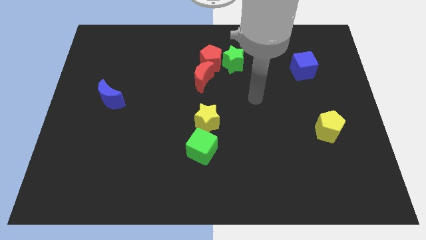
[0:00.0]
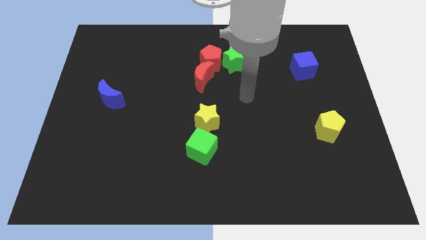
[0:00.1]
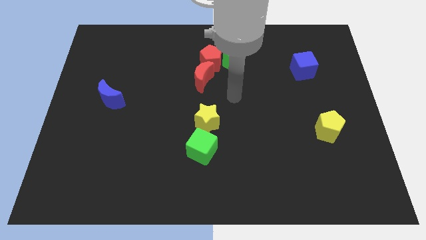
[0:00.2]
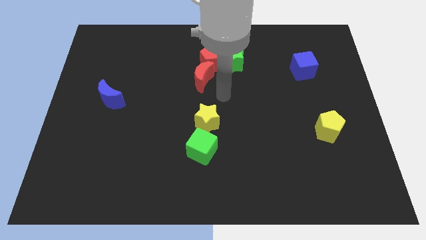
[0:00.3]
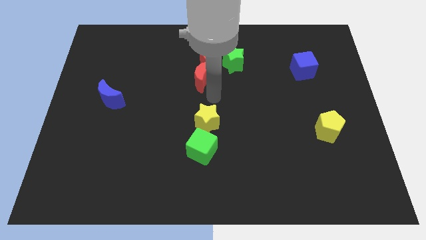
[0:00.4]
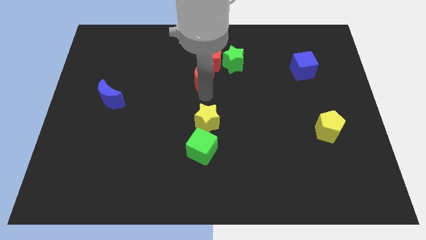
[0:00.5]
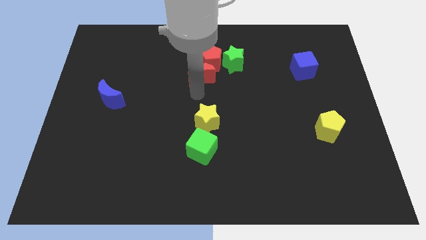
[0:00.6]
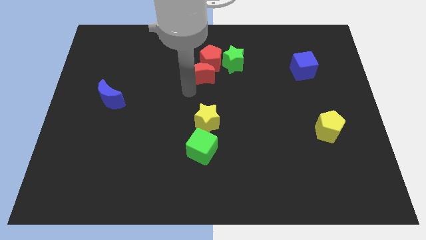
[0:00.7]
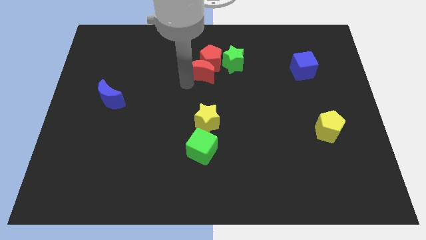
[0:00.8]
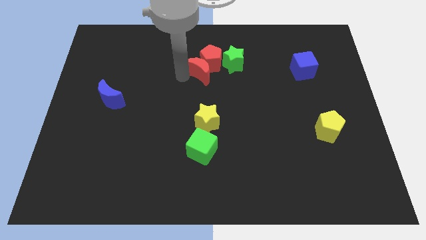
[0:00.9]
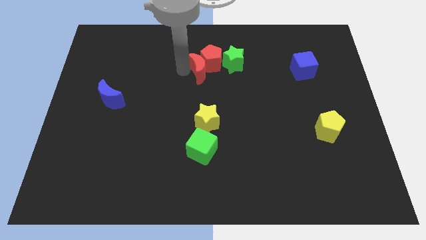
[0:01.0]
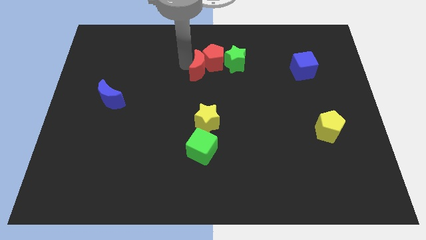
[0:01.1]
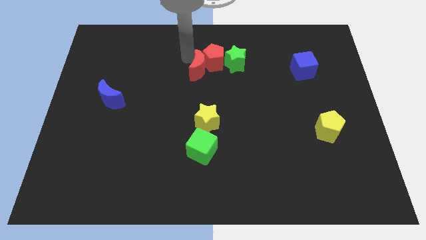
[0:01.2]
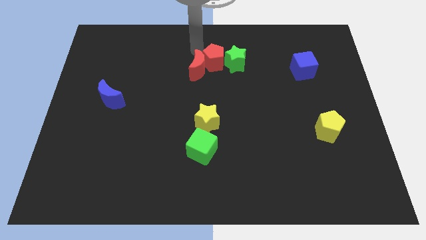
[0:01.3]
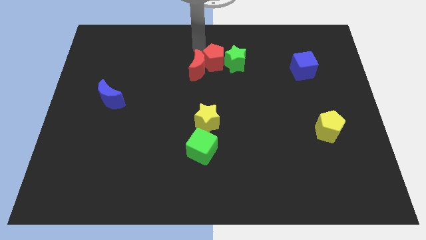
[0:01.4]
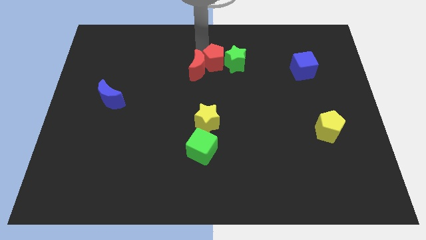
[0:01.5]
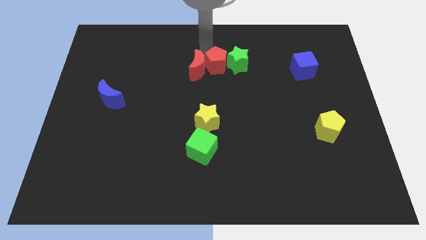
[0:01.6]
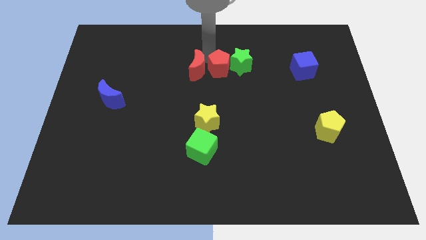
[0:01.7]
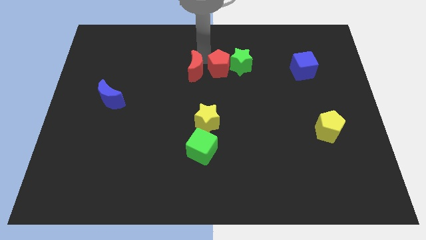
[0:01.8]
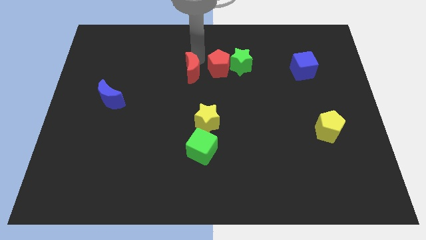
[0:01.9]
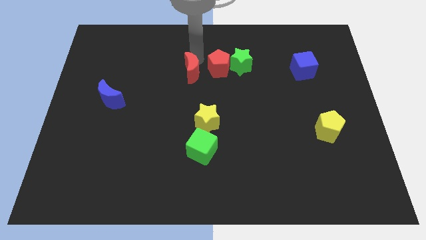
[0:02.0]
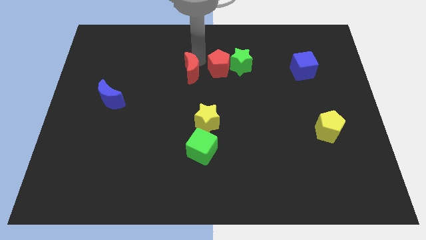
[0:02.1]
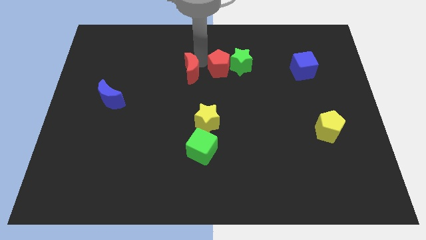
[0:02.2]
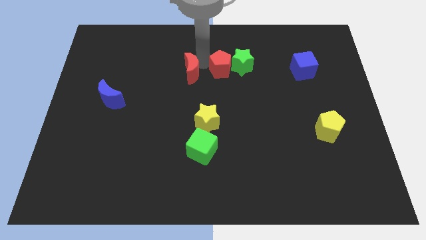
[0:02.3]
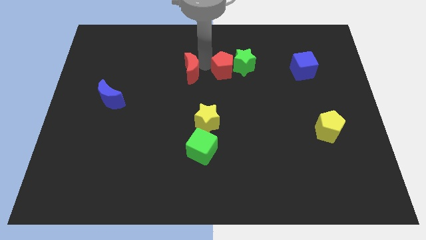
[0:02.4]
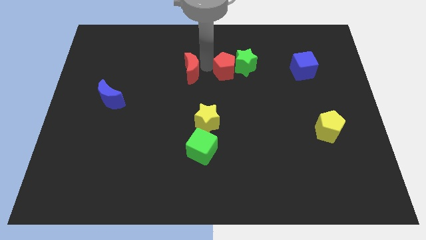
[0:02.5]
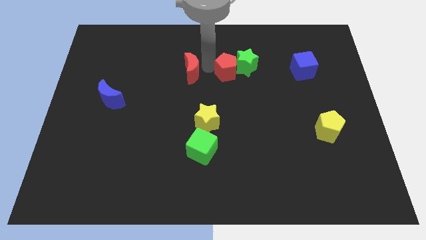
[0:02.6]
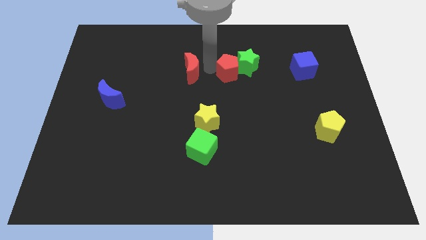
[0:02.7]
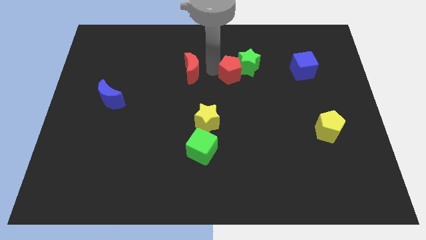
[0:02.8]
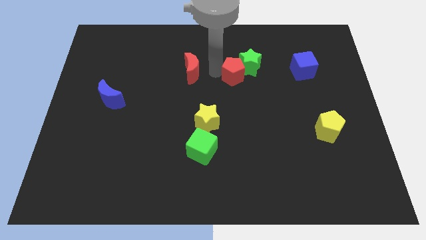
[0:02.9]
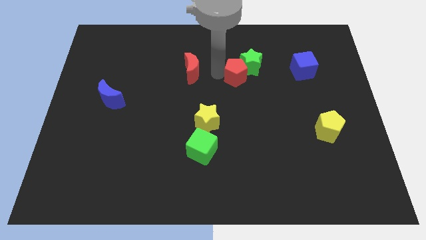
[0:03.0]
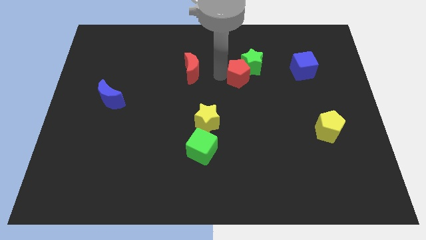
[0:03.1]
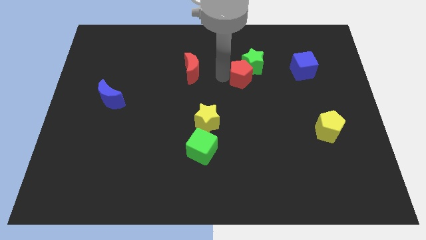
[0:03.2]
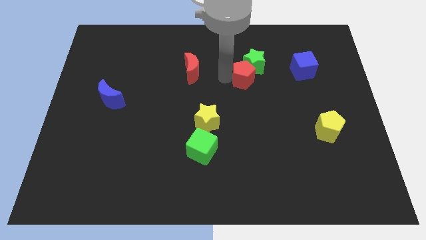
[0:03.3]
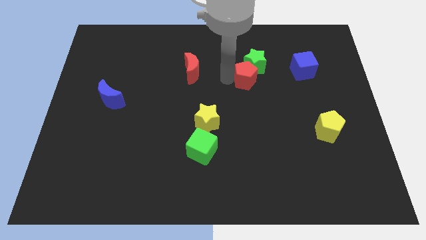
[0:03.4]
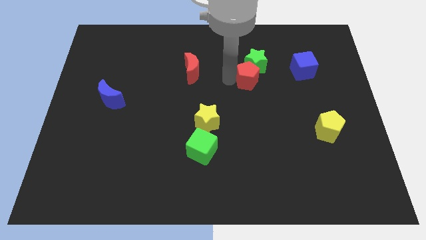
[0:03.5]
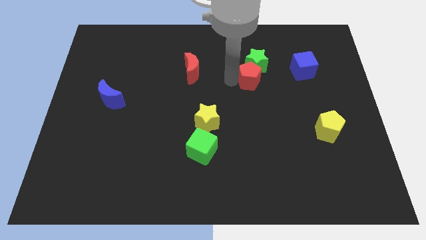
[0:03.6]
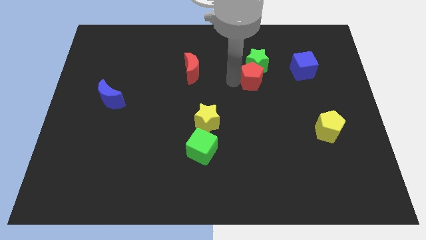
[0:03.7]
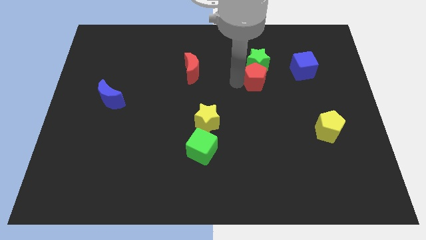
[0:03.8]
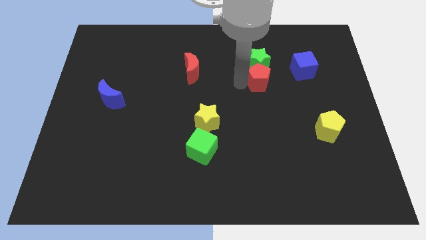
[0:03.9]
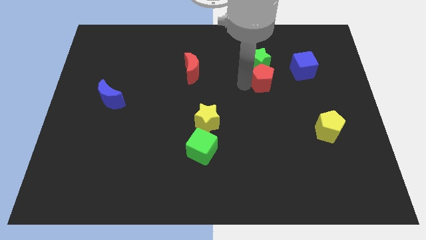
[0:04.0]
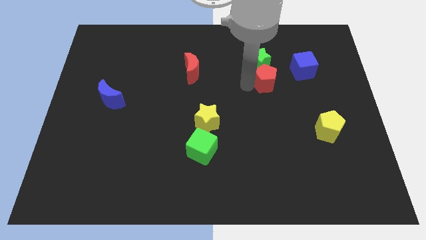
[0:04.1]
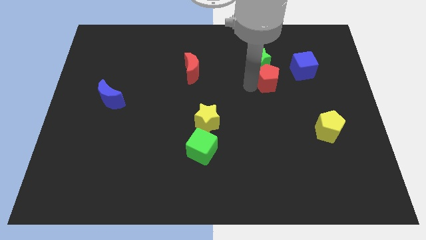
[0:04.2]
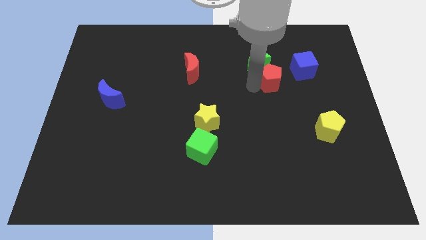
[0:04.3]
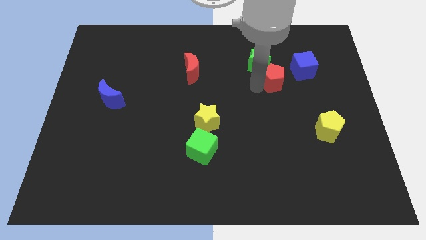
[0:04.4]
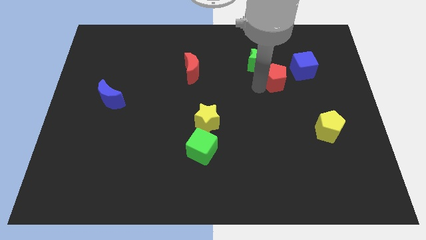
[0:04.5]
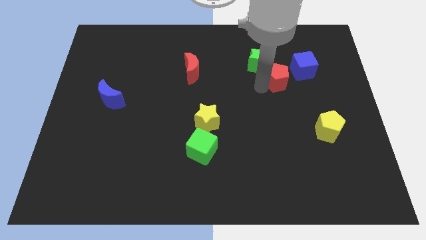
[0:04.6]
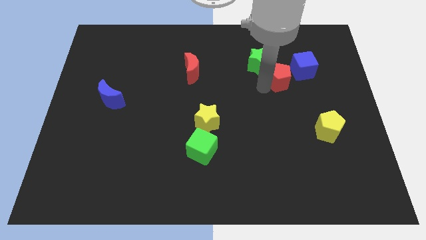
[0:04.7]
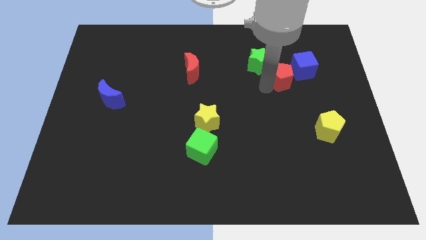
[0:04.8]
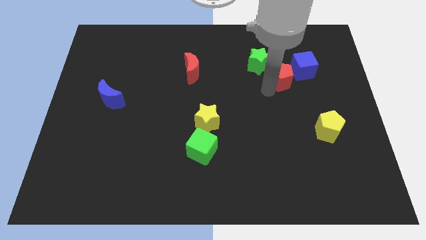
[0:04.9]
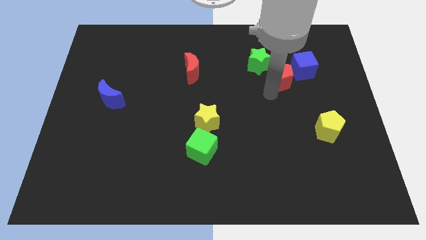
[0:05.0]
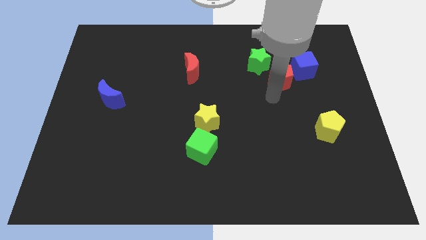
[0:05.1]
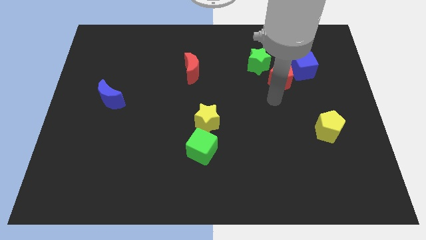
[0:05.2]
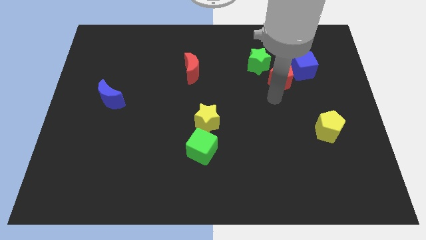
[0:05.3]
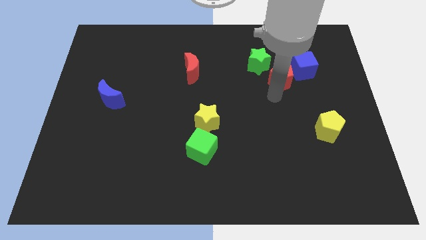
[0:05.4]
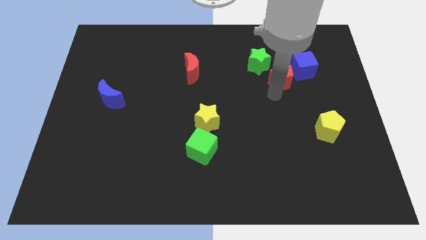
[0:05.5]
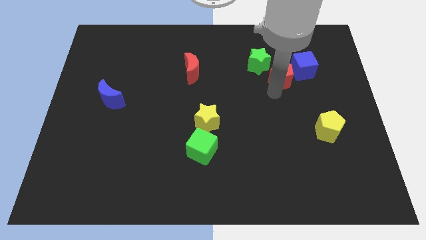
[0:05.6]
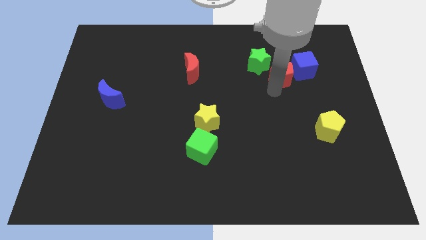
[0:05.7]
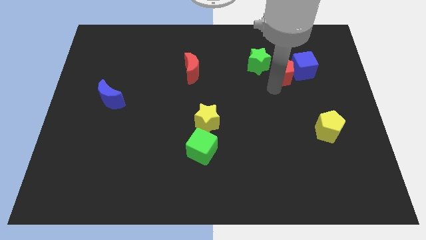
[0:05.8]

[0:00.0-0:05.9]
move the red pentagon next to the blue cube

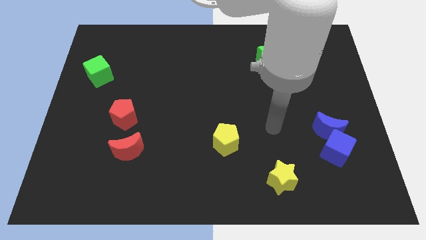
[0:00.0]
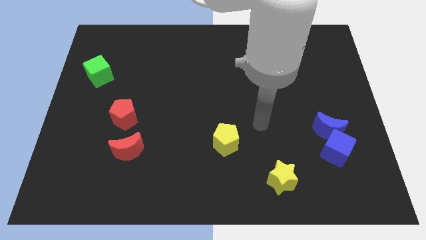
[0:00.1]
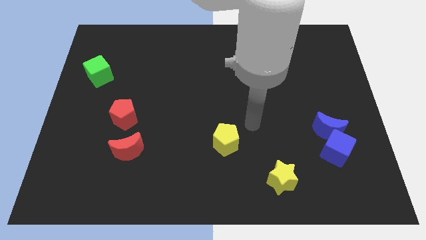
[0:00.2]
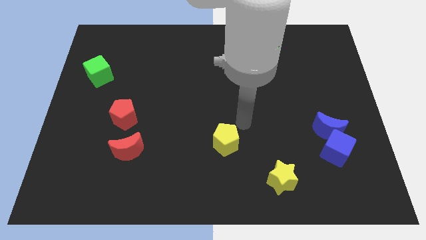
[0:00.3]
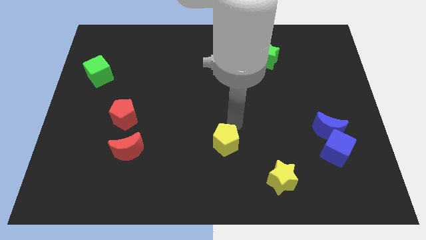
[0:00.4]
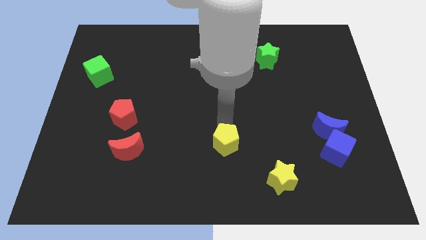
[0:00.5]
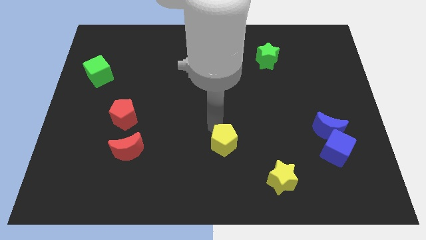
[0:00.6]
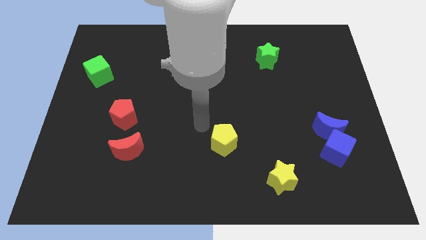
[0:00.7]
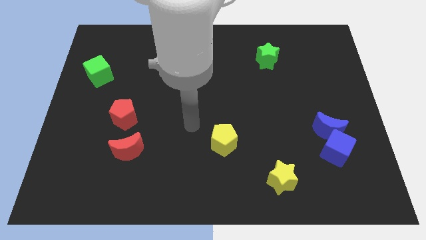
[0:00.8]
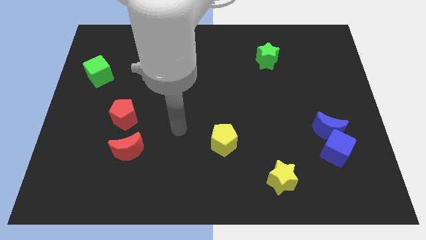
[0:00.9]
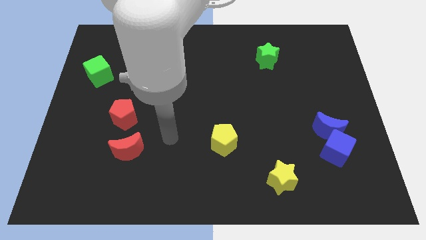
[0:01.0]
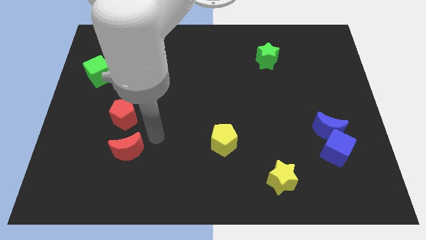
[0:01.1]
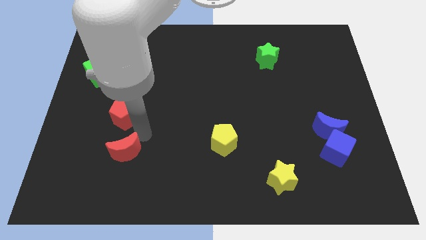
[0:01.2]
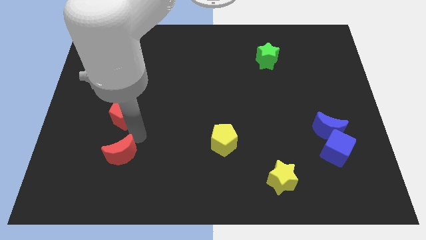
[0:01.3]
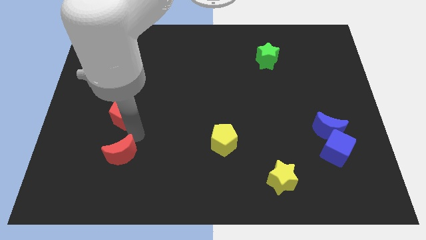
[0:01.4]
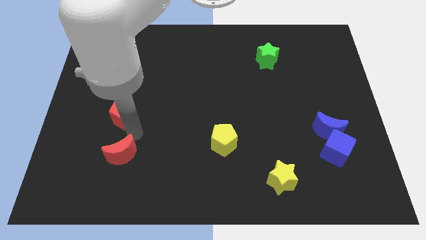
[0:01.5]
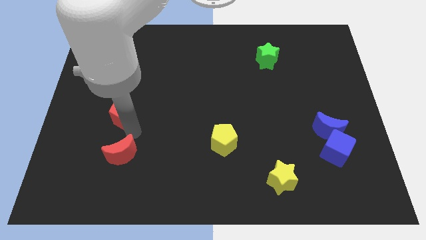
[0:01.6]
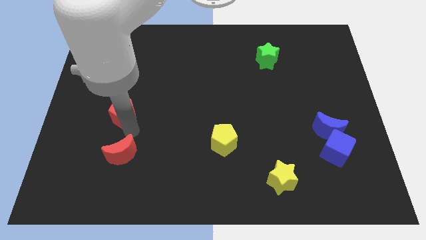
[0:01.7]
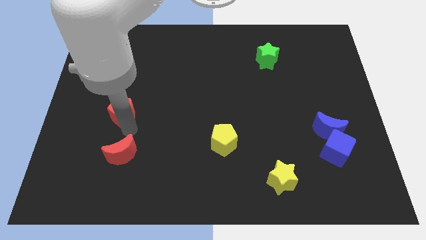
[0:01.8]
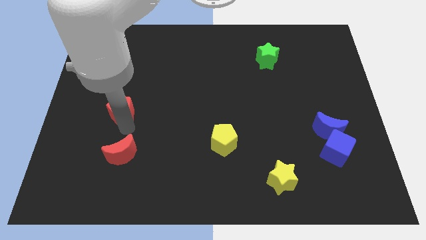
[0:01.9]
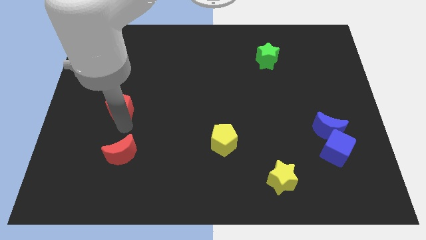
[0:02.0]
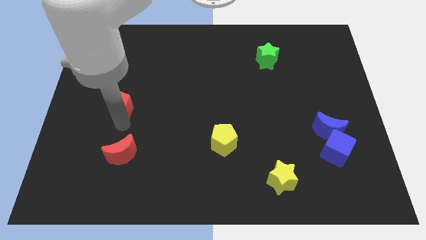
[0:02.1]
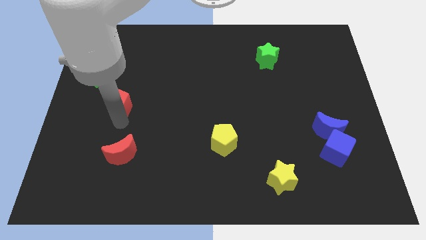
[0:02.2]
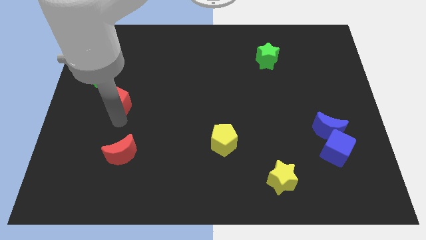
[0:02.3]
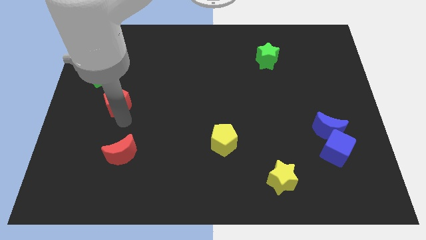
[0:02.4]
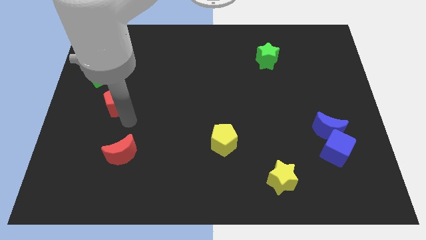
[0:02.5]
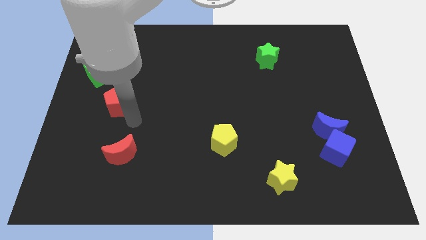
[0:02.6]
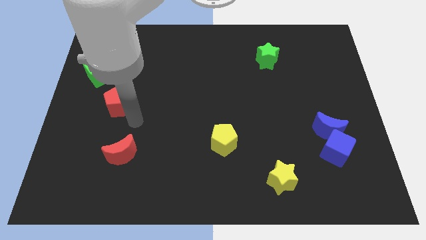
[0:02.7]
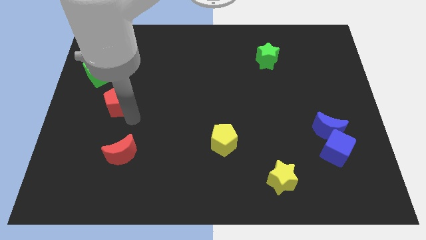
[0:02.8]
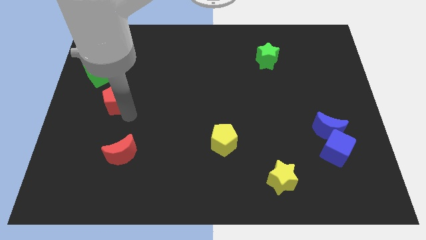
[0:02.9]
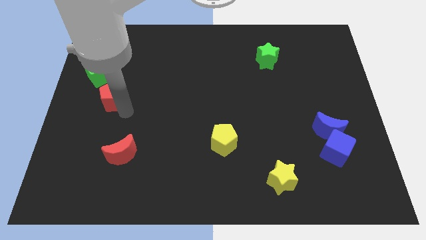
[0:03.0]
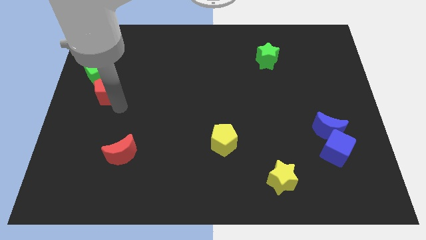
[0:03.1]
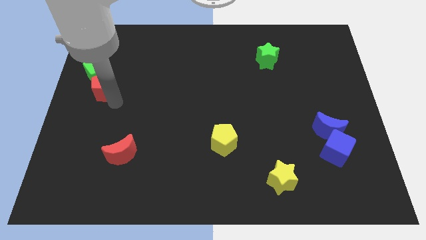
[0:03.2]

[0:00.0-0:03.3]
slide the red pentagon towards the green cube
